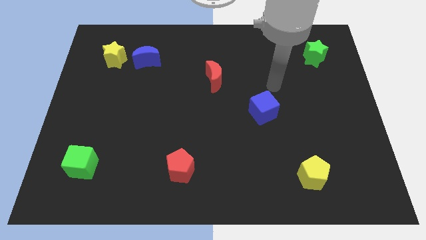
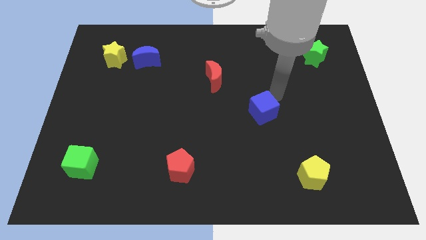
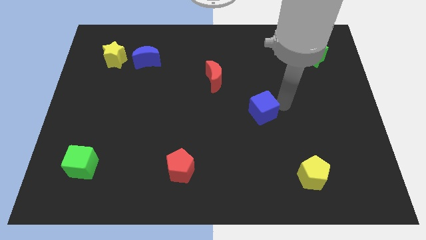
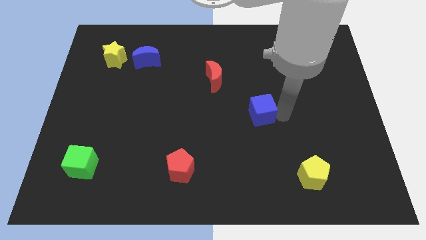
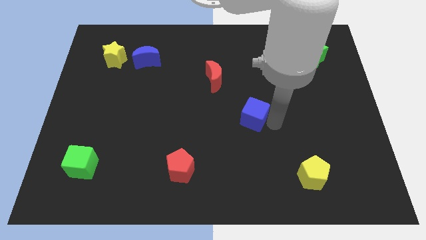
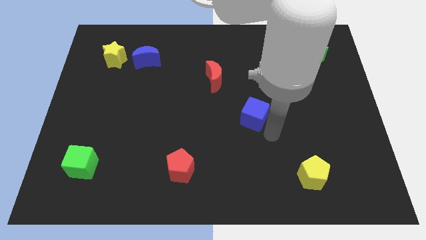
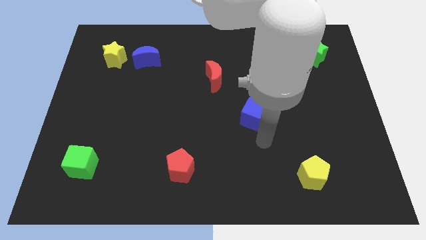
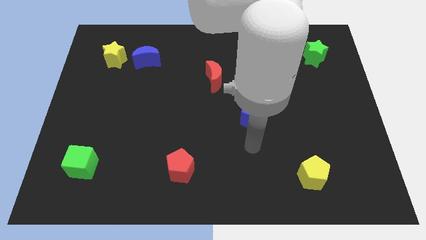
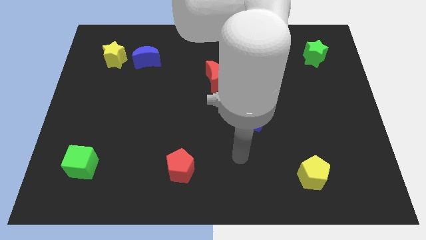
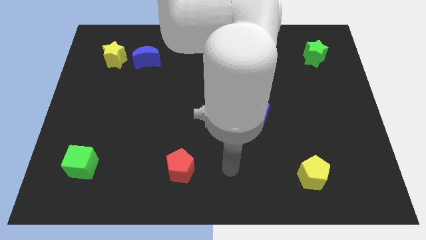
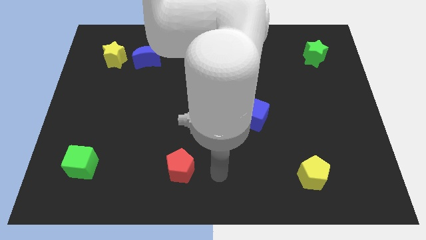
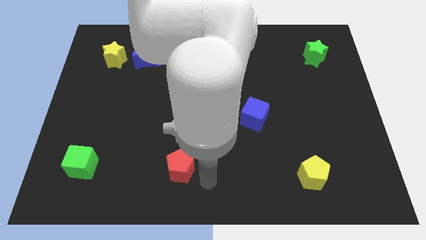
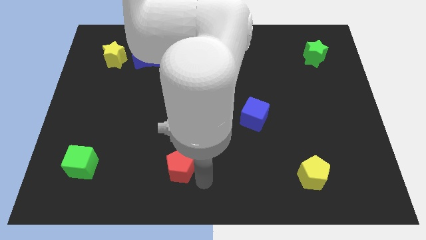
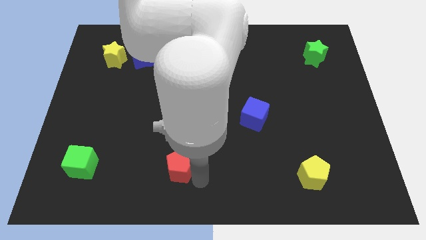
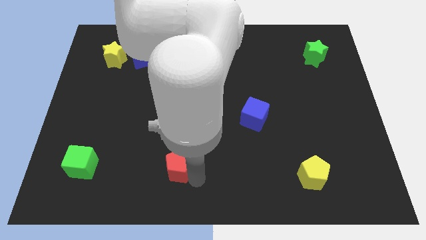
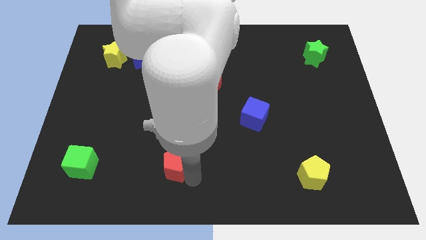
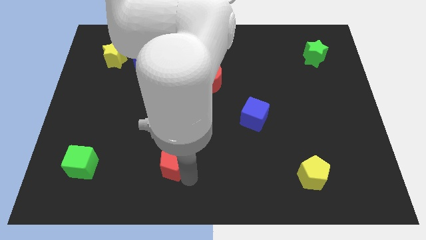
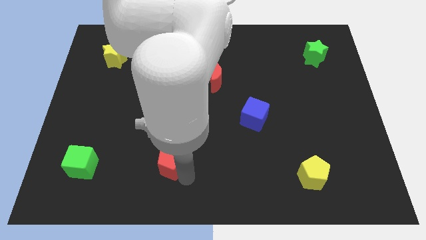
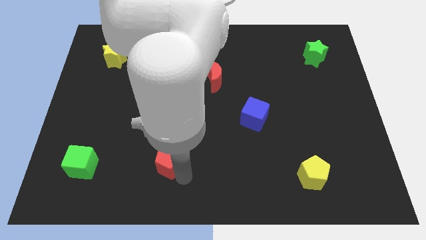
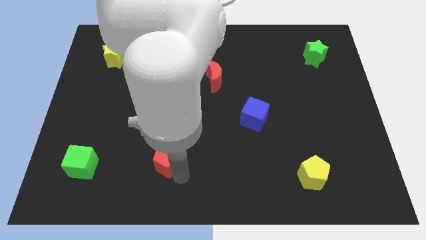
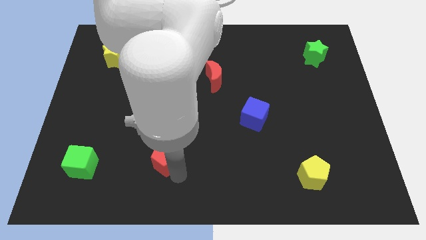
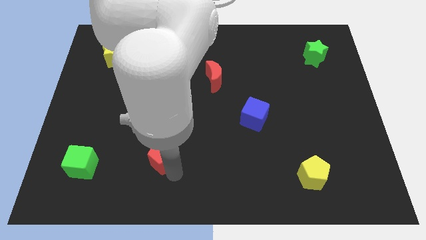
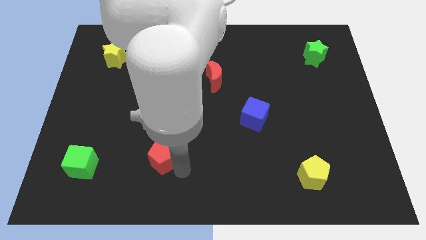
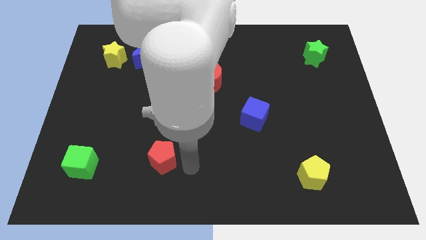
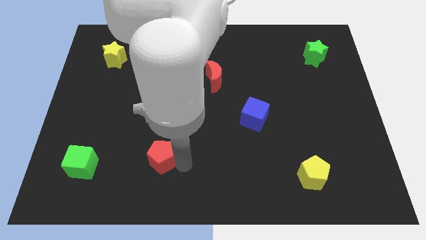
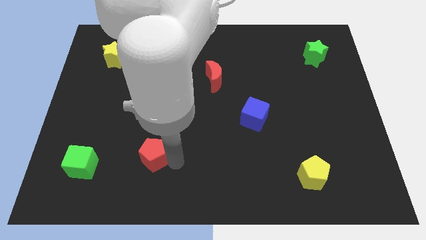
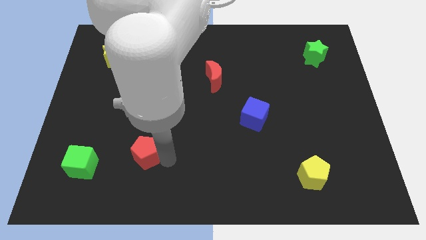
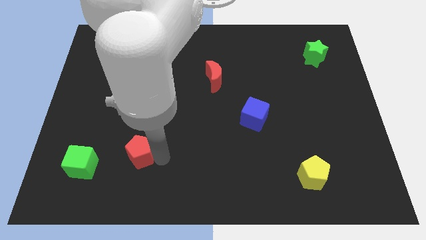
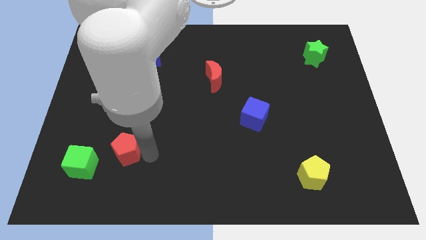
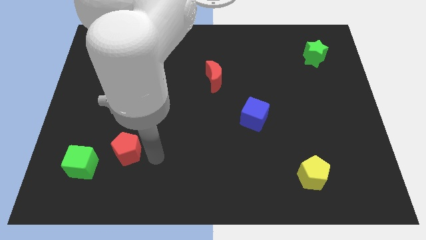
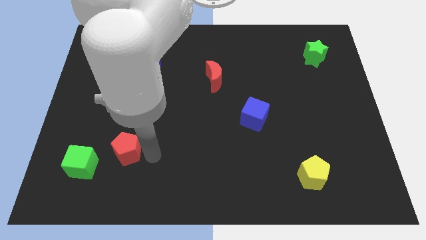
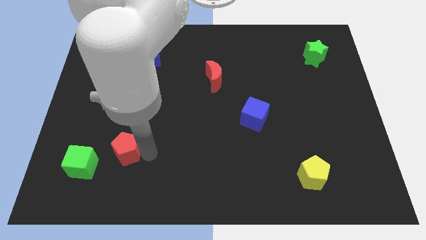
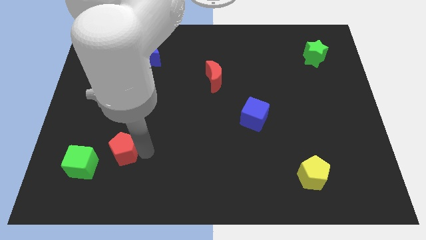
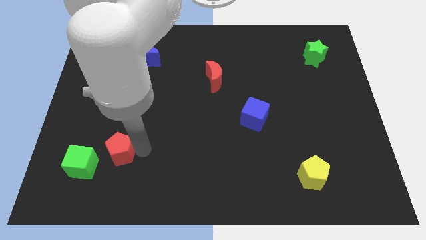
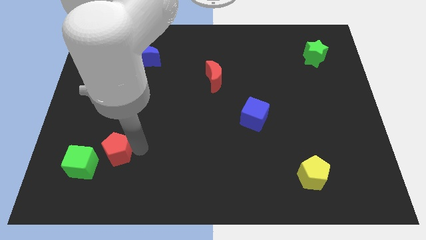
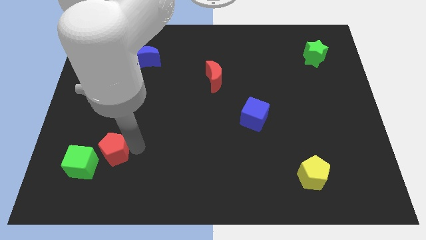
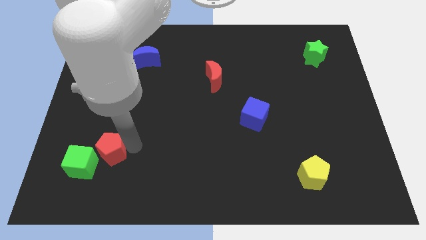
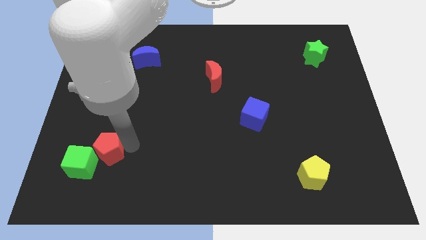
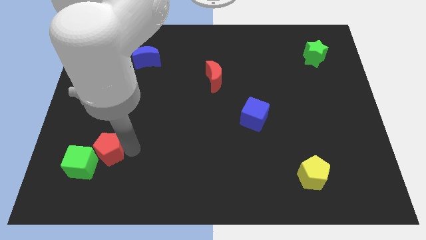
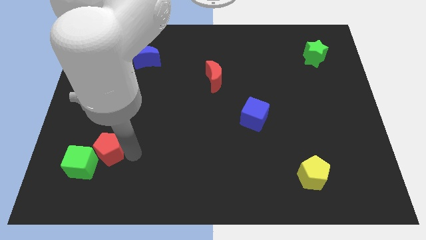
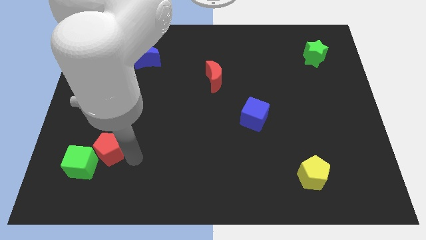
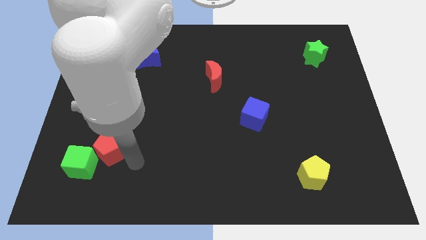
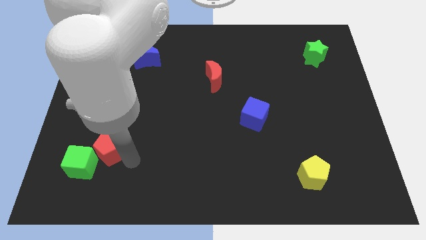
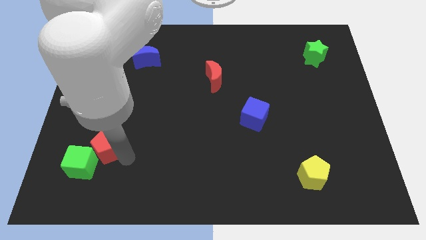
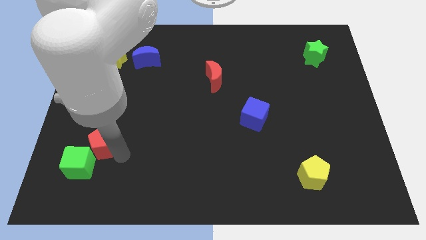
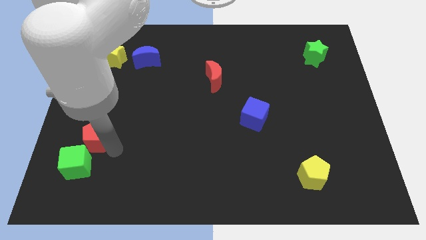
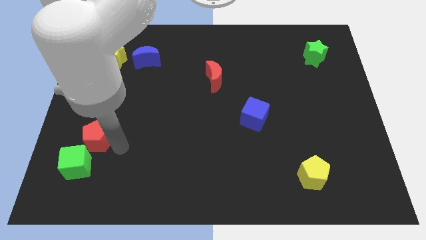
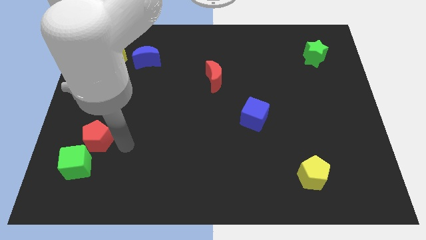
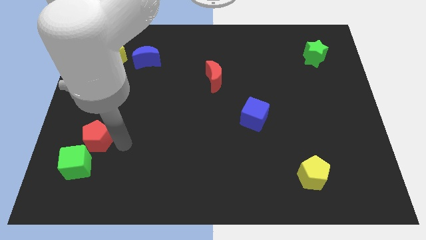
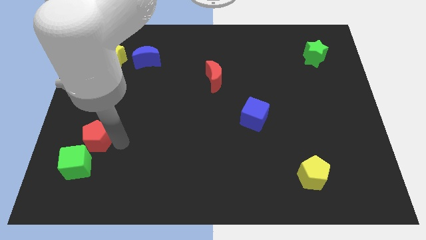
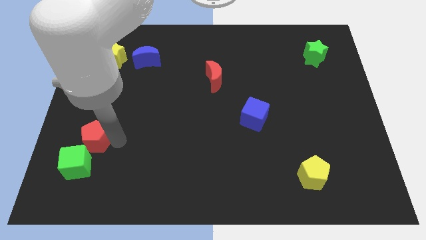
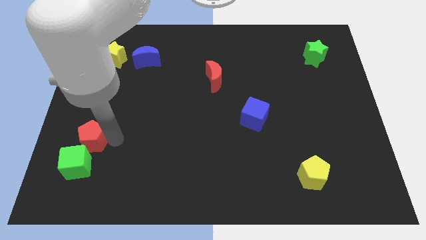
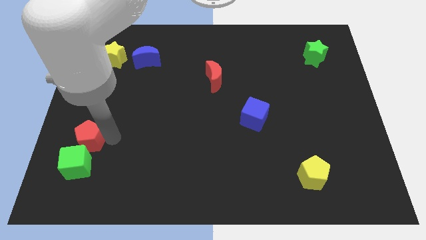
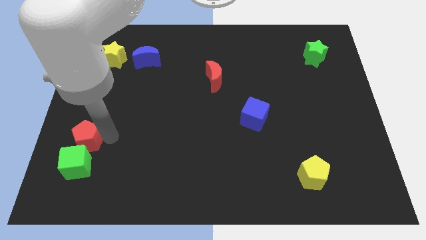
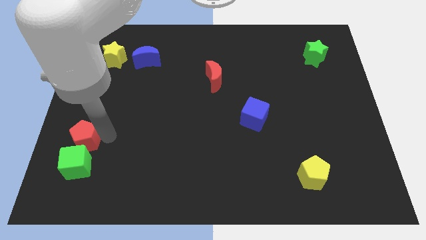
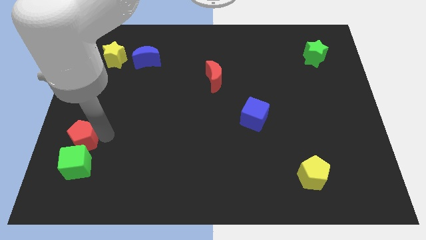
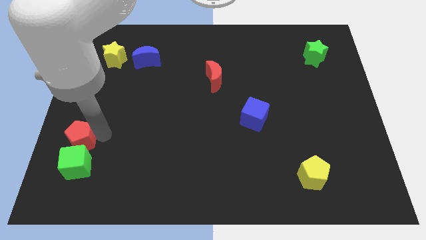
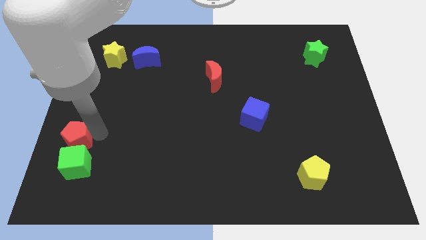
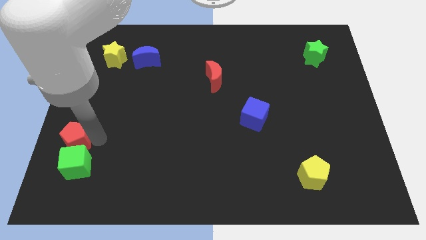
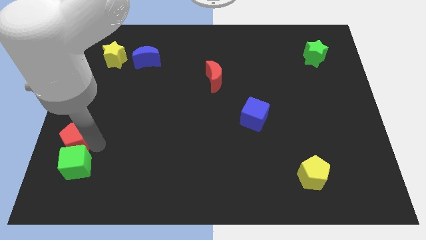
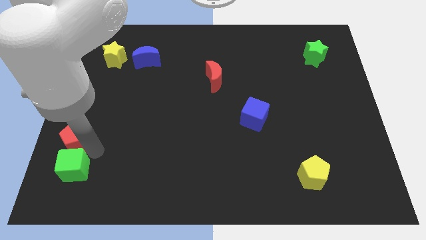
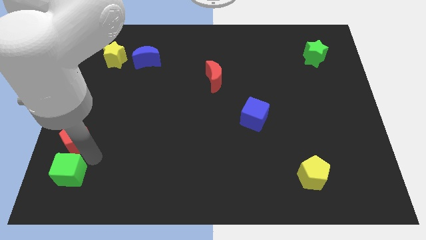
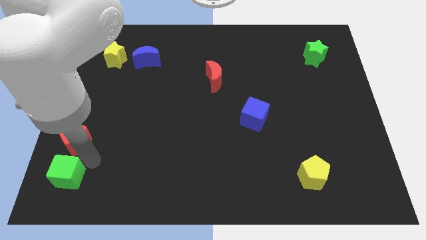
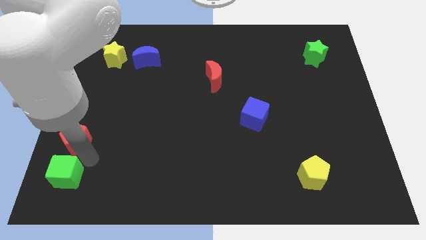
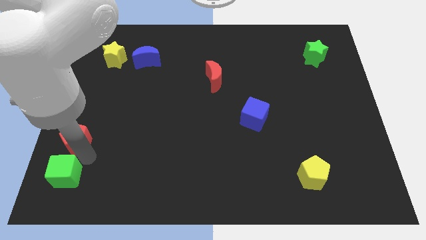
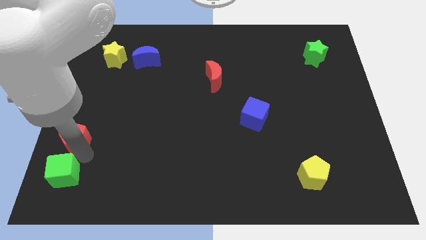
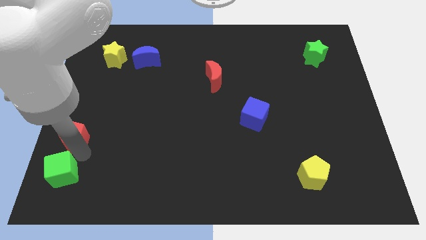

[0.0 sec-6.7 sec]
slide the red pentagon to the left side

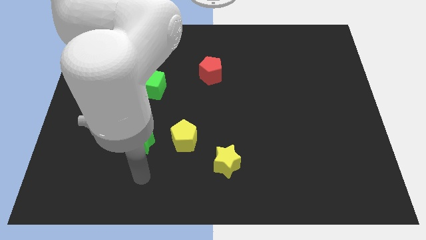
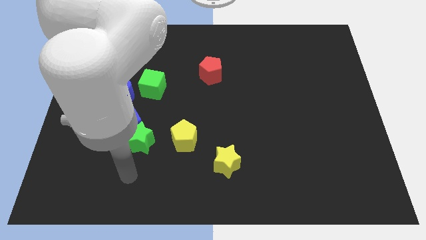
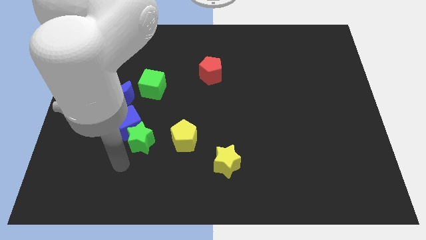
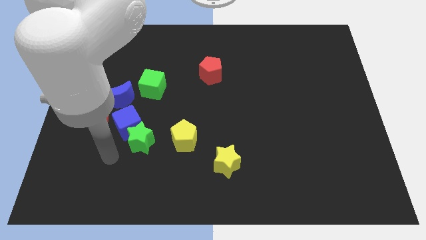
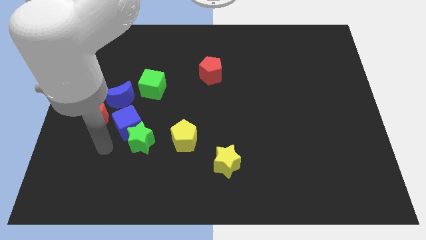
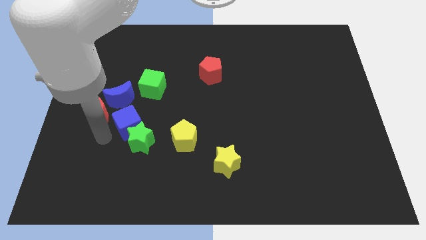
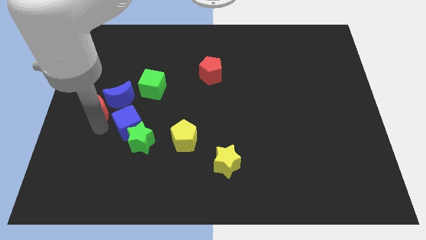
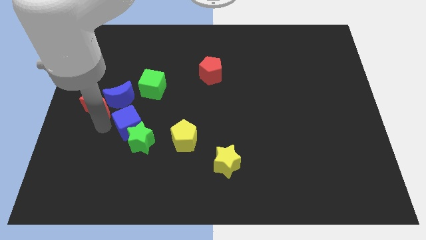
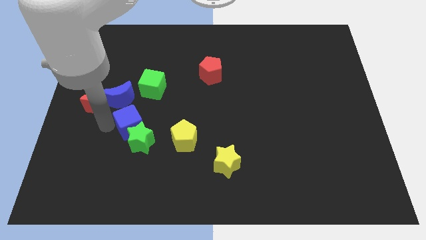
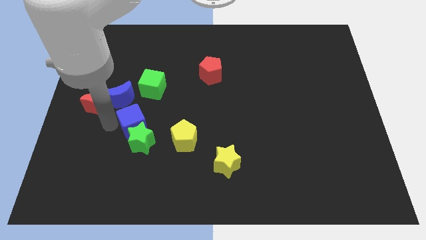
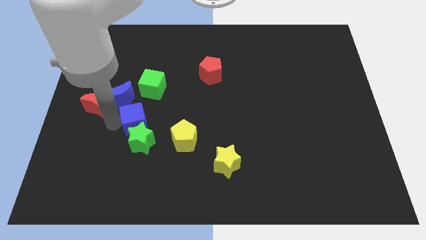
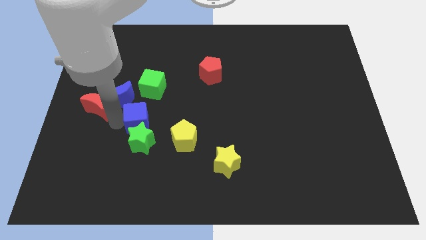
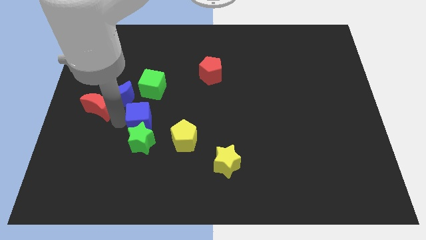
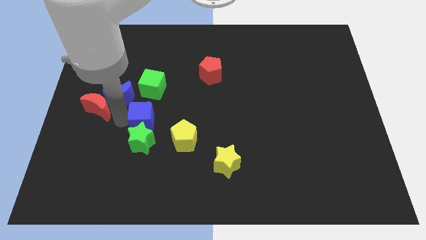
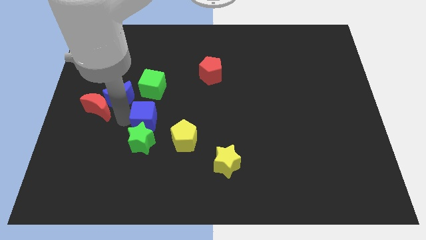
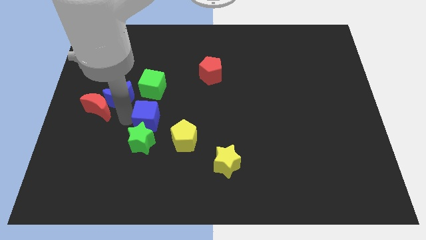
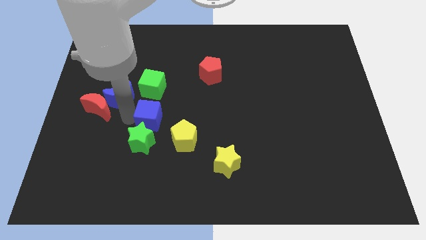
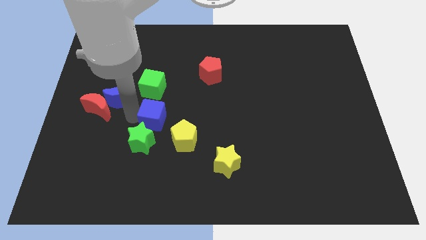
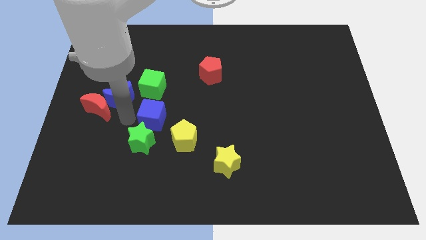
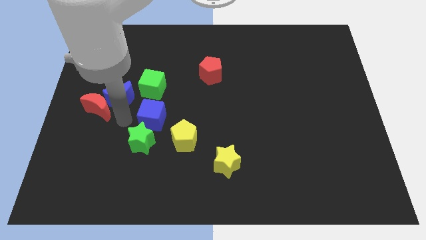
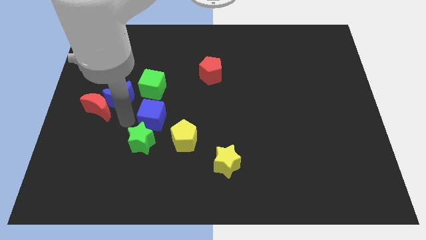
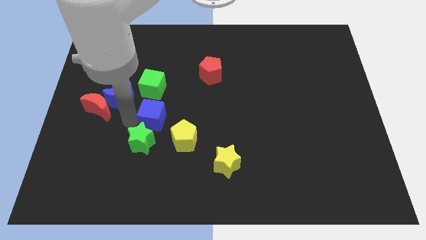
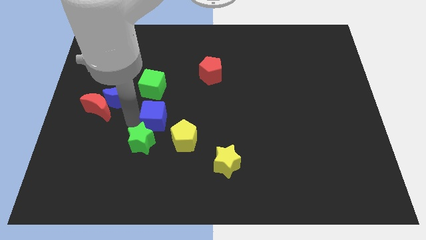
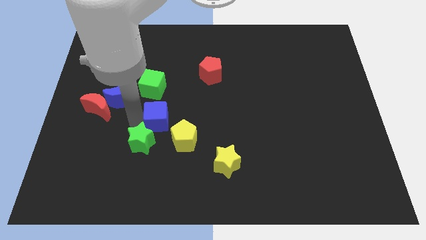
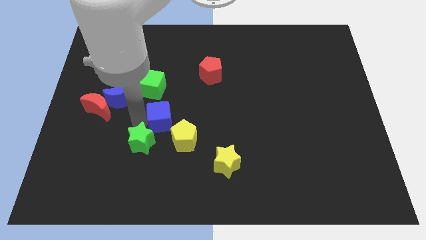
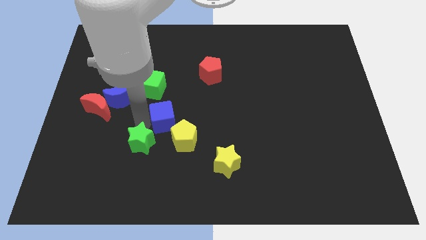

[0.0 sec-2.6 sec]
move the blue cube to the center
